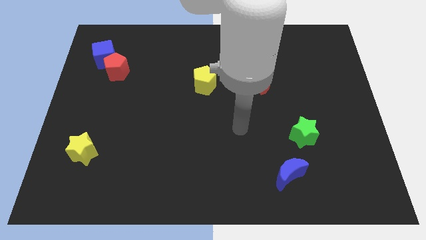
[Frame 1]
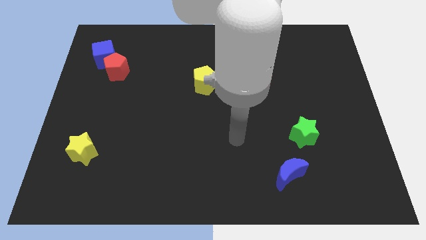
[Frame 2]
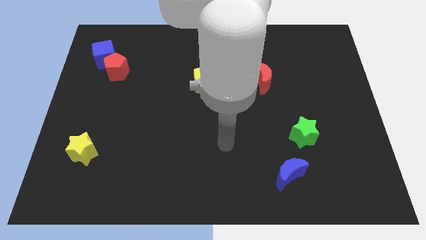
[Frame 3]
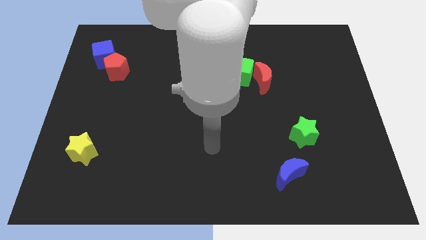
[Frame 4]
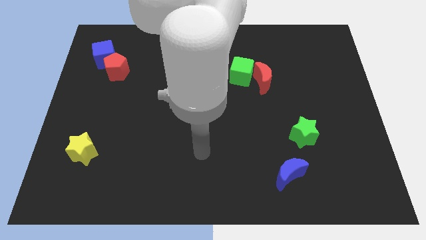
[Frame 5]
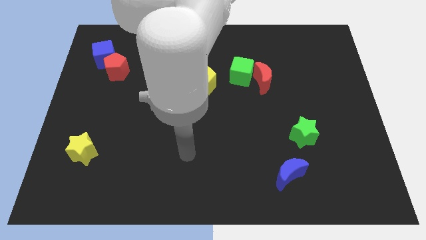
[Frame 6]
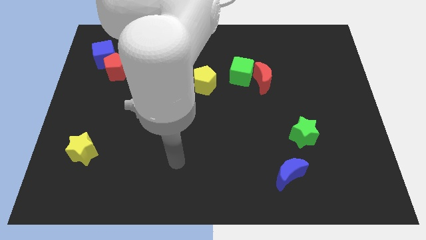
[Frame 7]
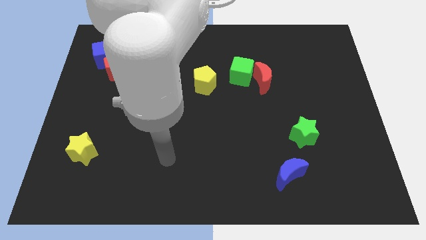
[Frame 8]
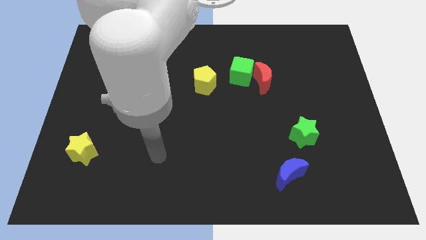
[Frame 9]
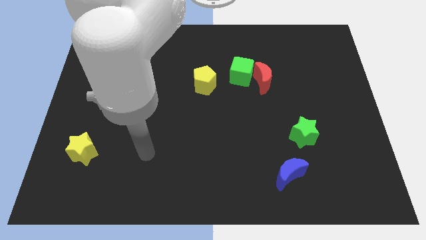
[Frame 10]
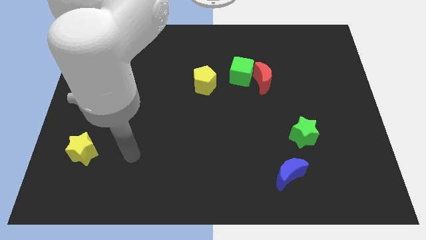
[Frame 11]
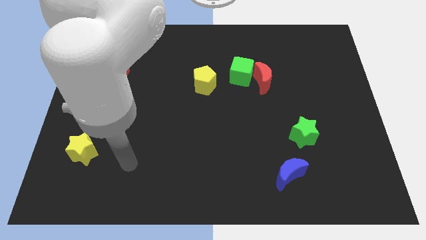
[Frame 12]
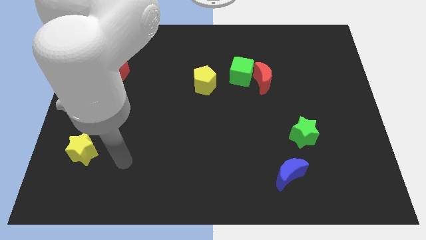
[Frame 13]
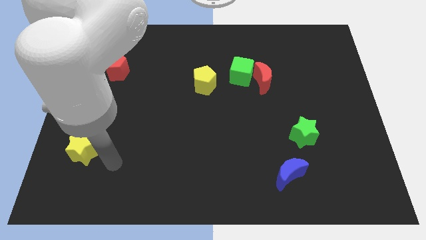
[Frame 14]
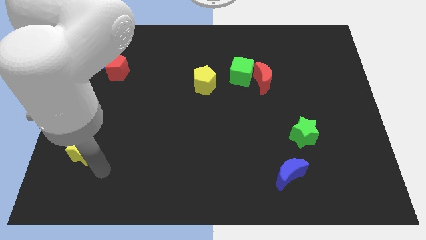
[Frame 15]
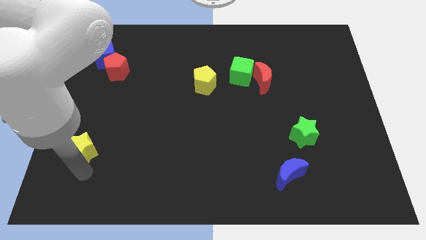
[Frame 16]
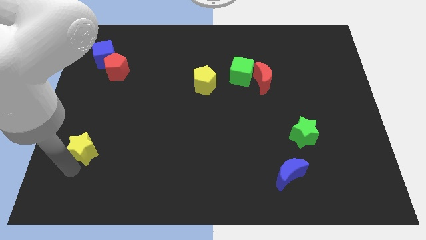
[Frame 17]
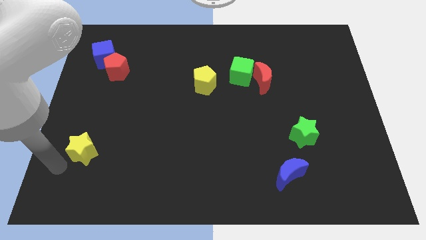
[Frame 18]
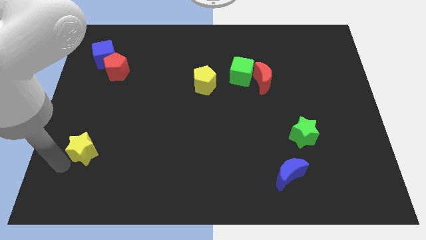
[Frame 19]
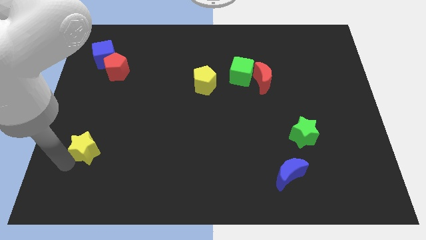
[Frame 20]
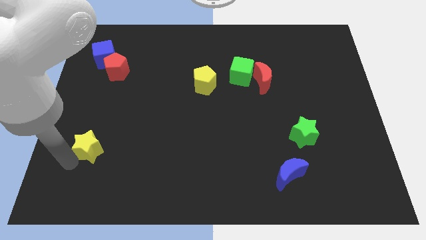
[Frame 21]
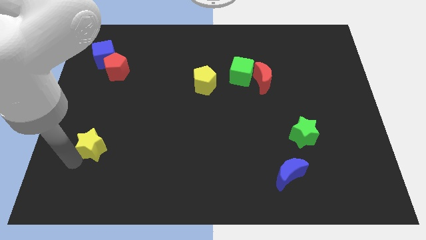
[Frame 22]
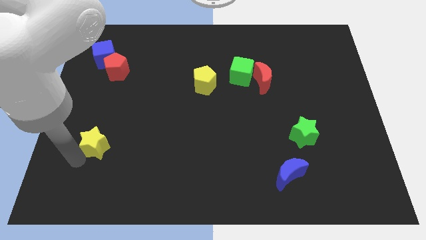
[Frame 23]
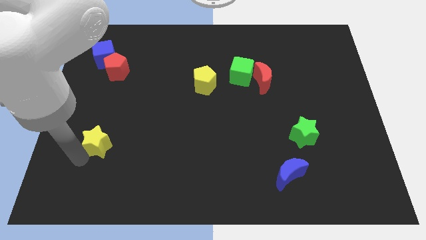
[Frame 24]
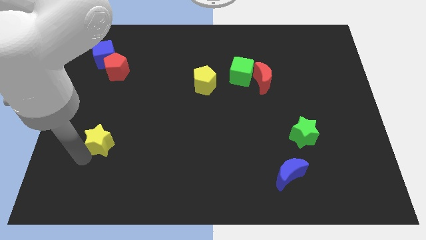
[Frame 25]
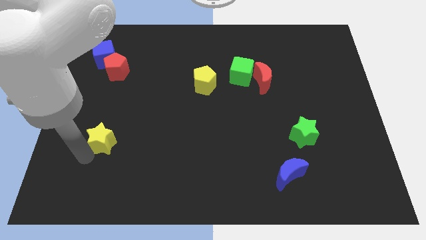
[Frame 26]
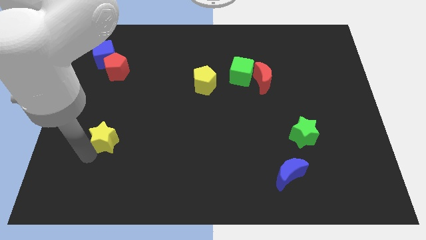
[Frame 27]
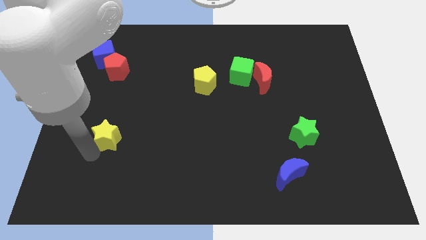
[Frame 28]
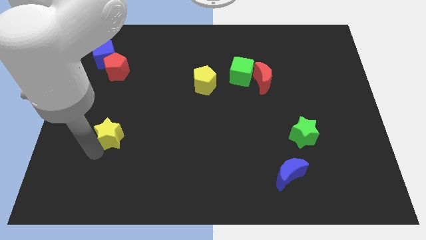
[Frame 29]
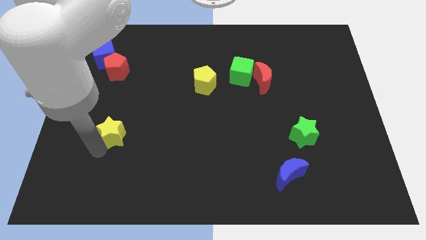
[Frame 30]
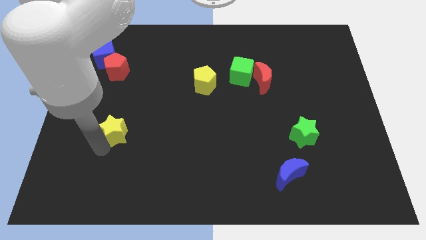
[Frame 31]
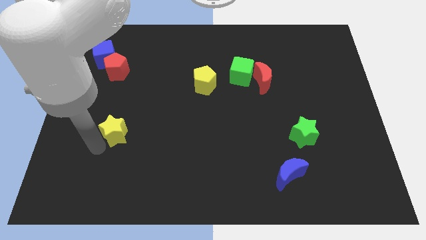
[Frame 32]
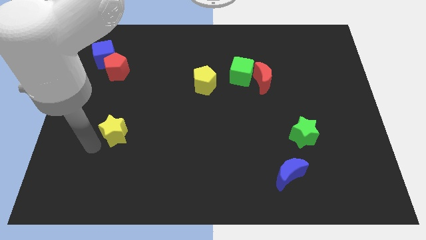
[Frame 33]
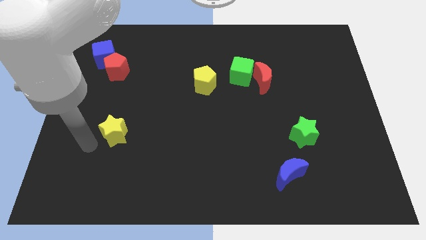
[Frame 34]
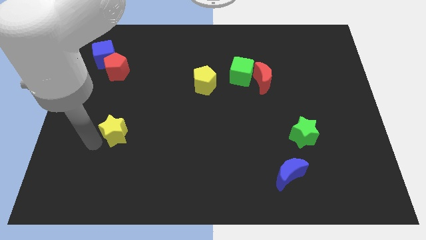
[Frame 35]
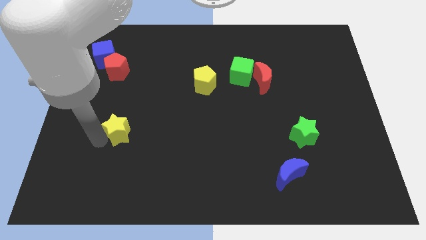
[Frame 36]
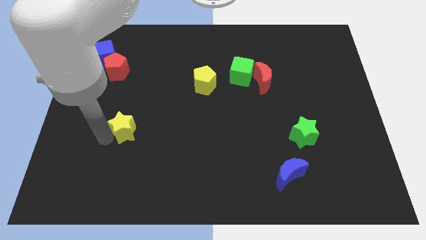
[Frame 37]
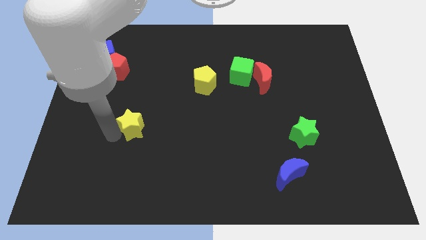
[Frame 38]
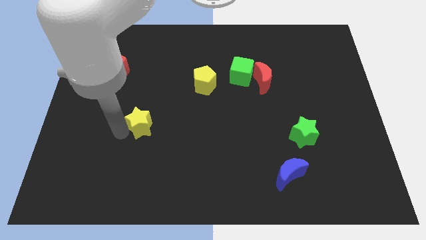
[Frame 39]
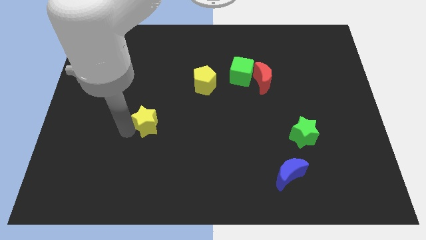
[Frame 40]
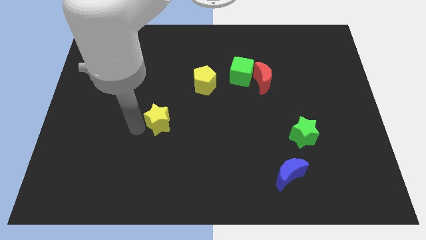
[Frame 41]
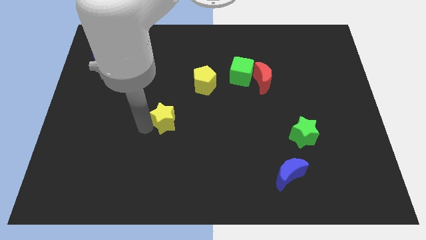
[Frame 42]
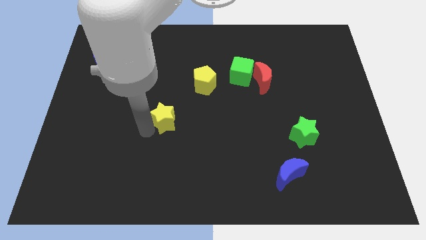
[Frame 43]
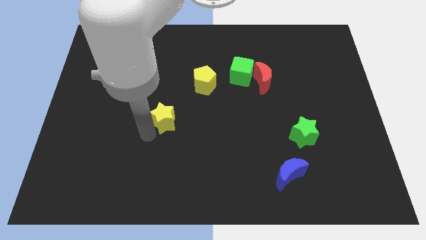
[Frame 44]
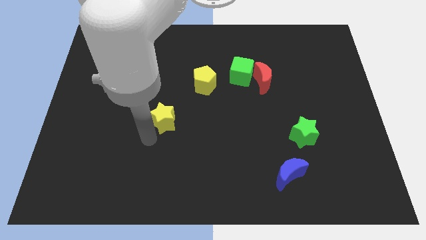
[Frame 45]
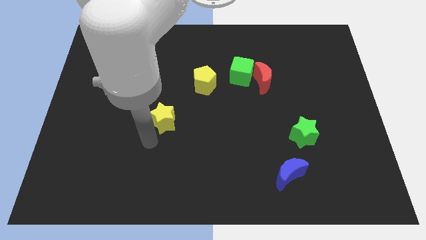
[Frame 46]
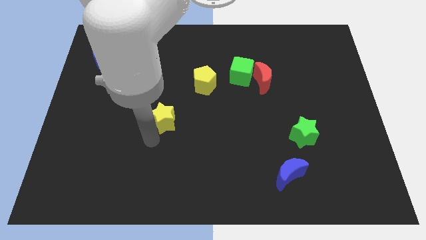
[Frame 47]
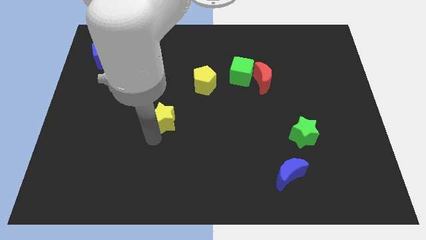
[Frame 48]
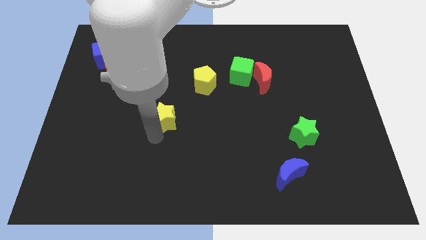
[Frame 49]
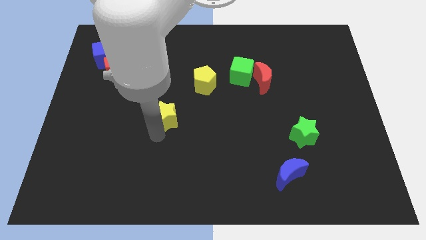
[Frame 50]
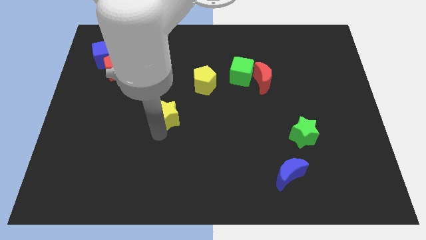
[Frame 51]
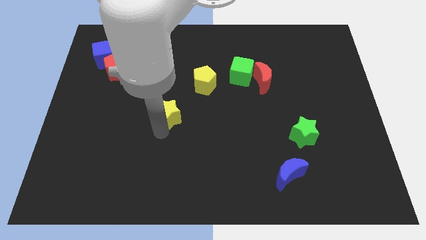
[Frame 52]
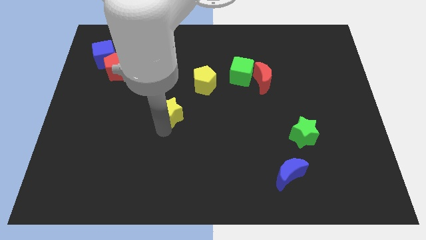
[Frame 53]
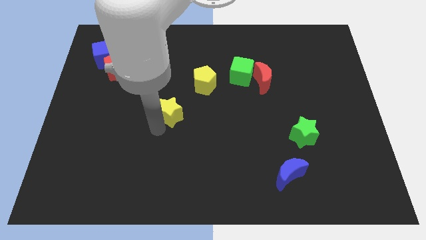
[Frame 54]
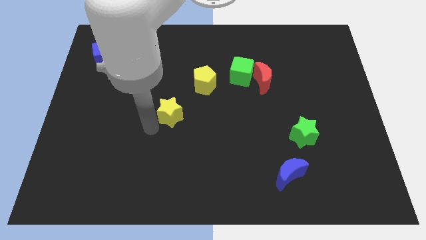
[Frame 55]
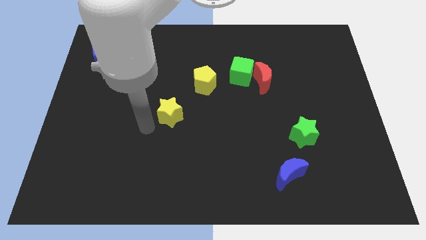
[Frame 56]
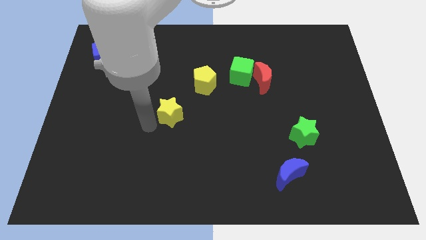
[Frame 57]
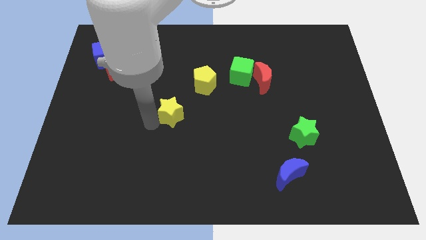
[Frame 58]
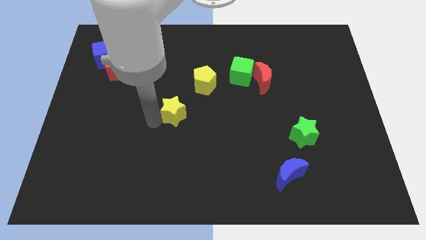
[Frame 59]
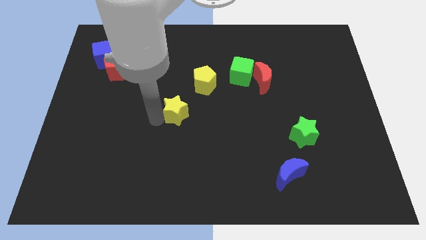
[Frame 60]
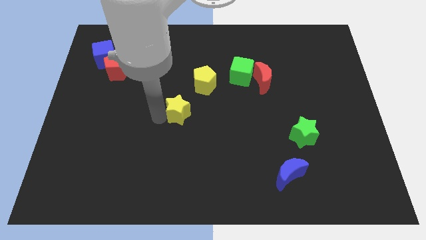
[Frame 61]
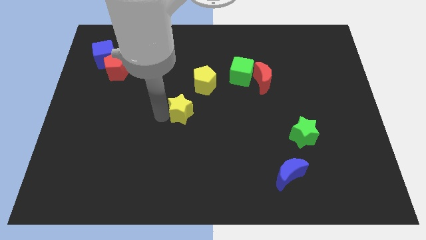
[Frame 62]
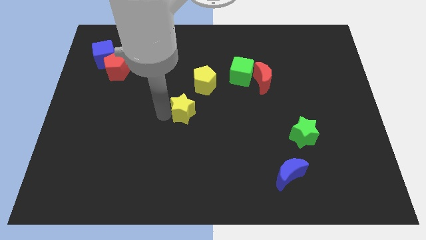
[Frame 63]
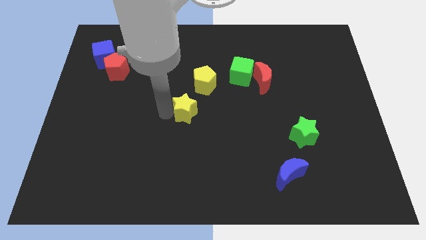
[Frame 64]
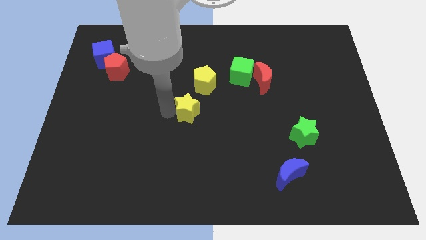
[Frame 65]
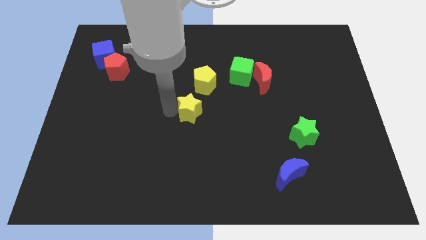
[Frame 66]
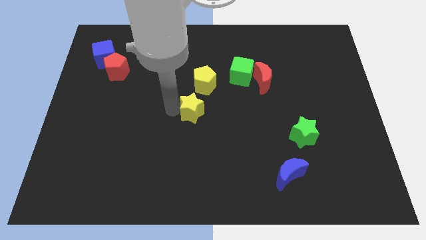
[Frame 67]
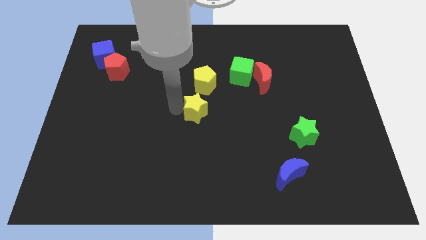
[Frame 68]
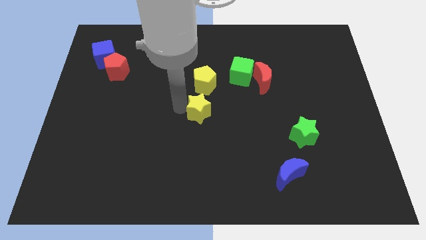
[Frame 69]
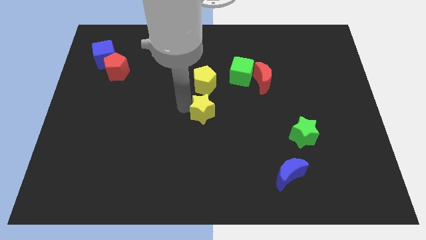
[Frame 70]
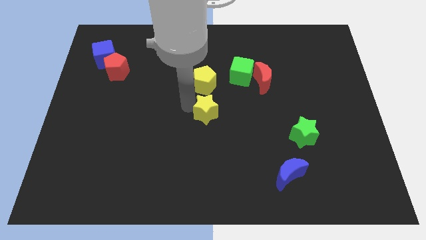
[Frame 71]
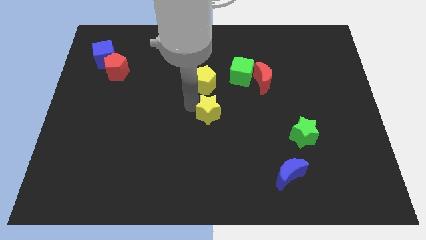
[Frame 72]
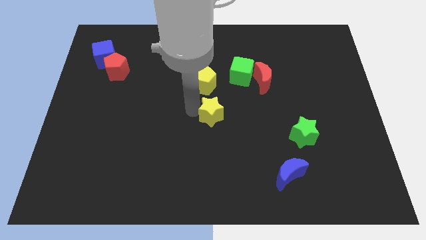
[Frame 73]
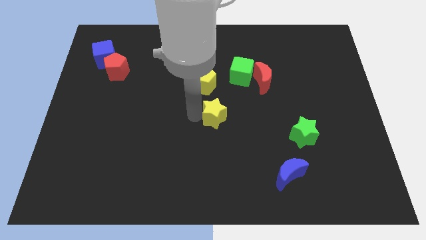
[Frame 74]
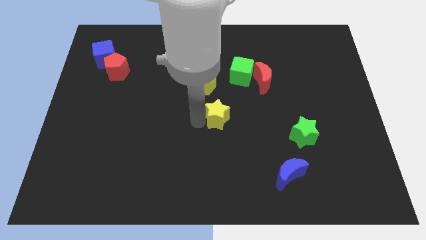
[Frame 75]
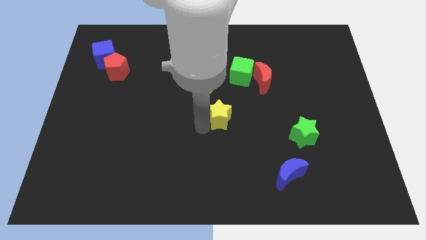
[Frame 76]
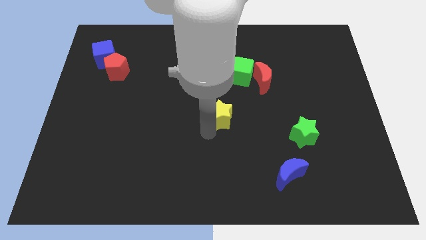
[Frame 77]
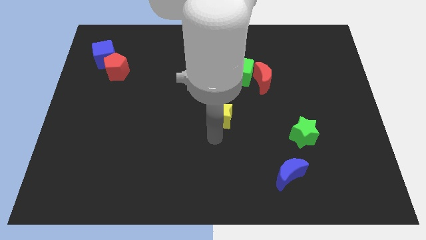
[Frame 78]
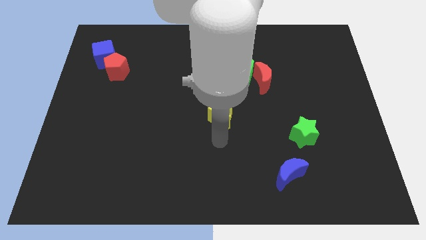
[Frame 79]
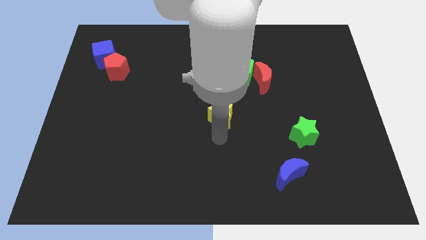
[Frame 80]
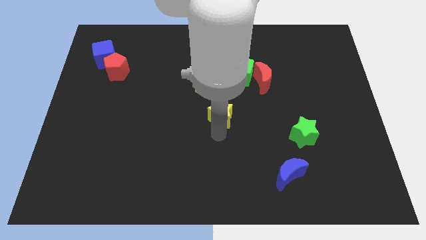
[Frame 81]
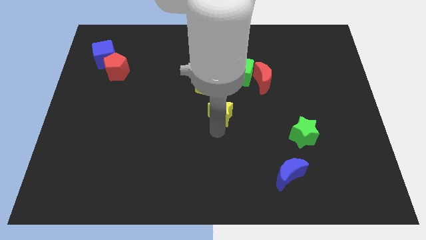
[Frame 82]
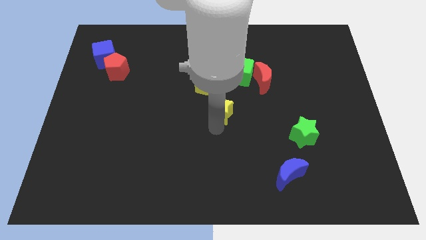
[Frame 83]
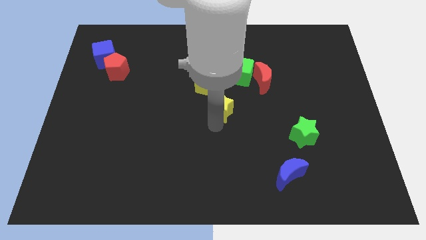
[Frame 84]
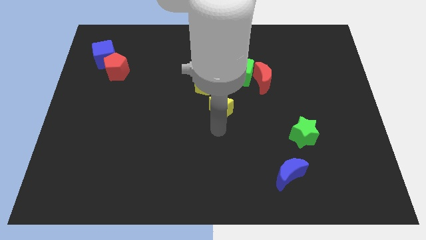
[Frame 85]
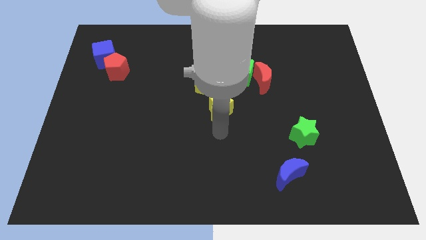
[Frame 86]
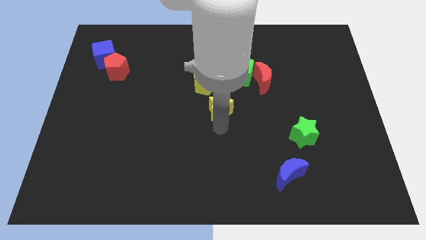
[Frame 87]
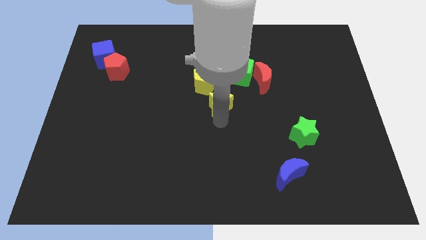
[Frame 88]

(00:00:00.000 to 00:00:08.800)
push the yellow star to the bottom left of the green cube
